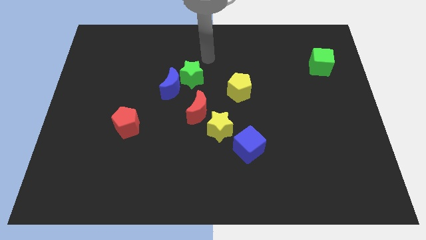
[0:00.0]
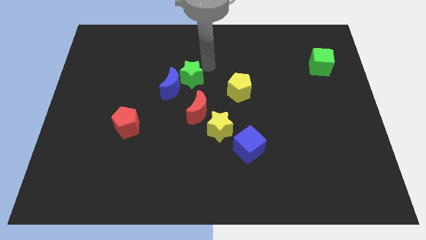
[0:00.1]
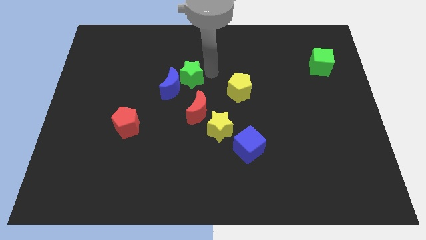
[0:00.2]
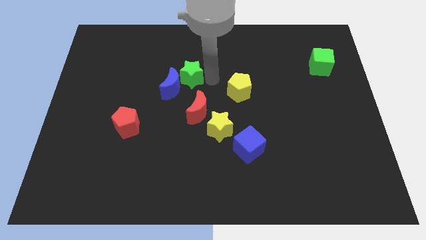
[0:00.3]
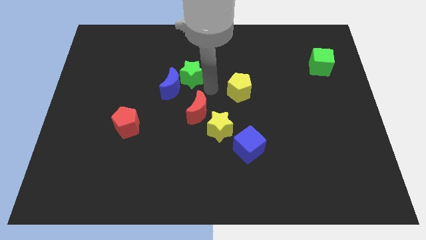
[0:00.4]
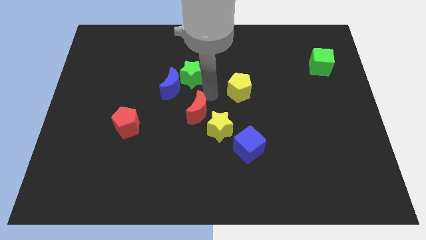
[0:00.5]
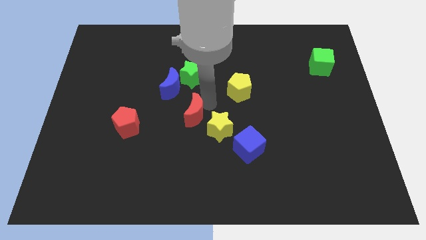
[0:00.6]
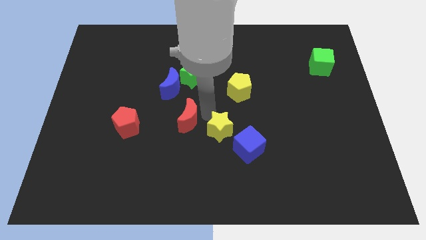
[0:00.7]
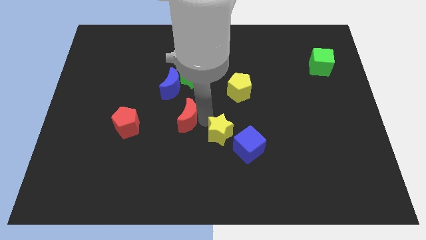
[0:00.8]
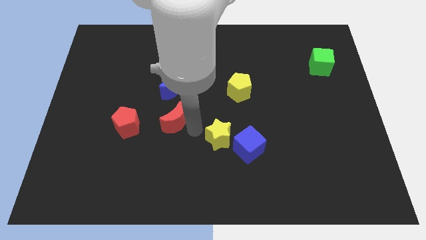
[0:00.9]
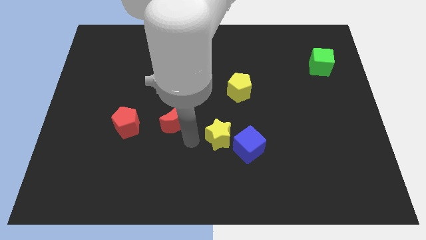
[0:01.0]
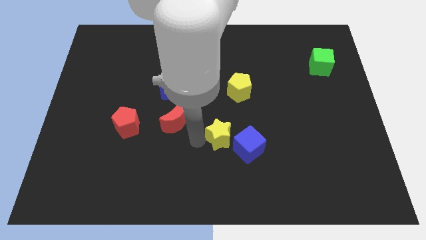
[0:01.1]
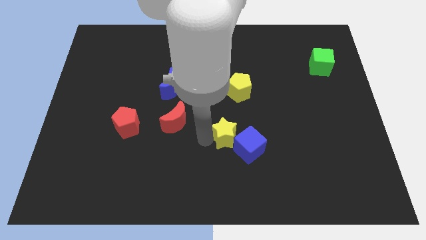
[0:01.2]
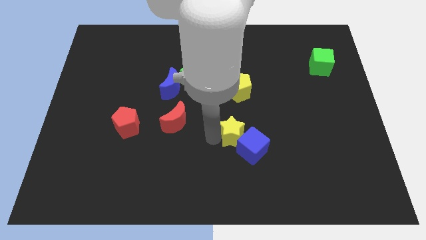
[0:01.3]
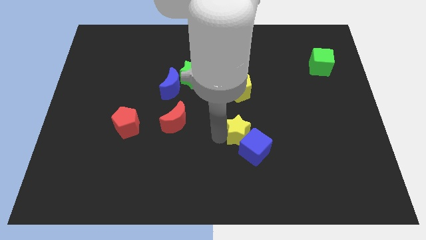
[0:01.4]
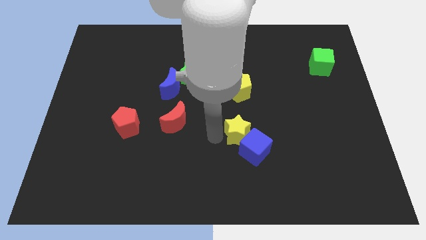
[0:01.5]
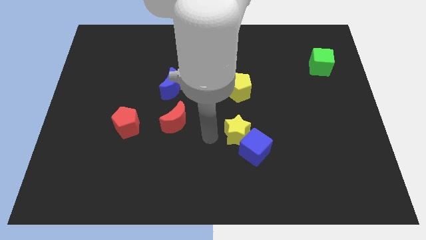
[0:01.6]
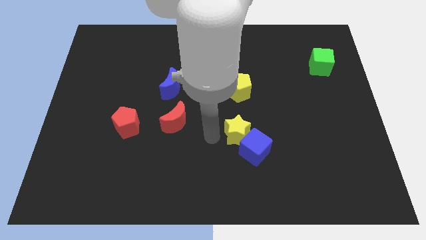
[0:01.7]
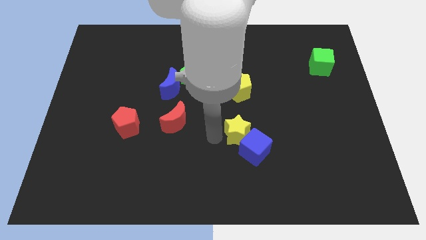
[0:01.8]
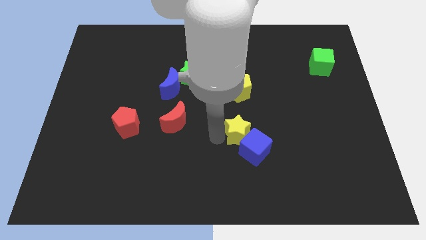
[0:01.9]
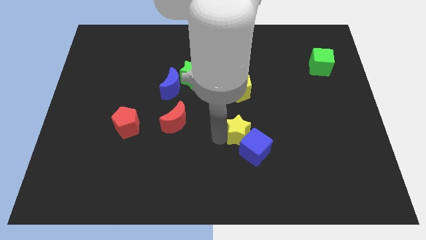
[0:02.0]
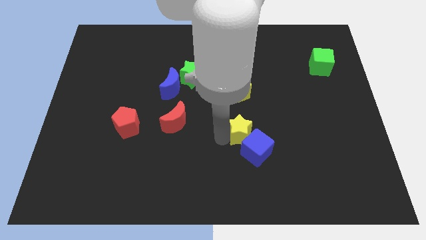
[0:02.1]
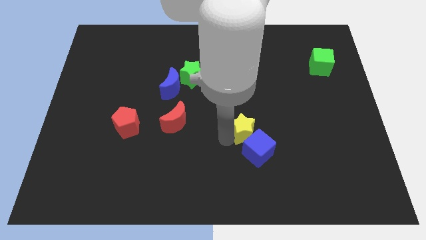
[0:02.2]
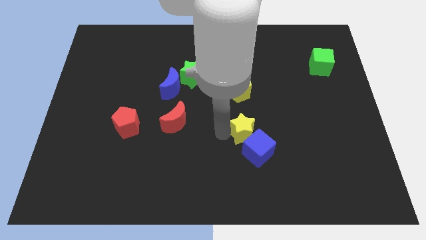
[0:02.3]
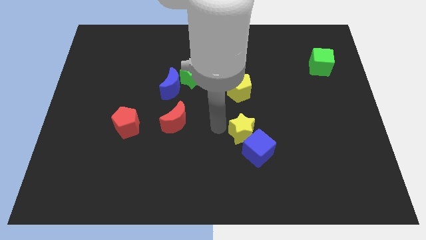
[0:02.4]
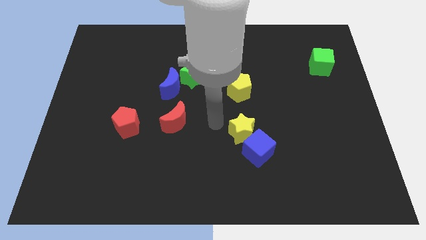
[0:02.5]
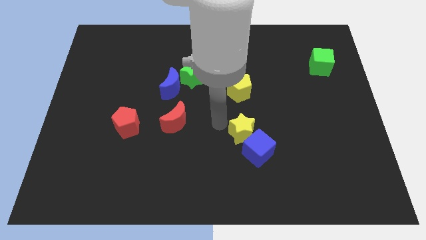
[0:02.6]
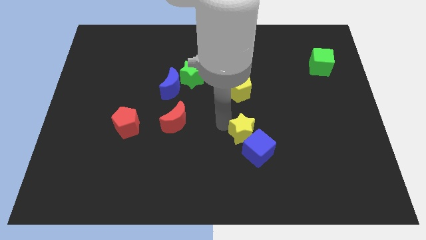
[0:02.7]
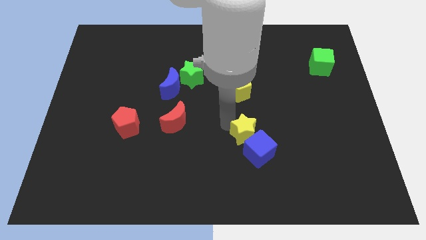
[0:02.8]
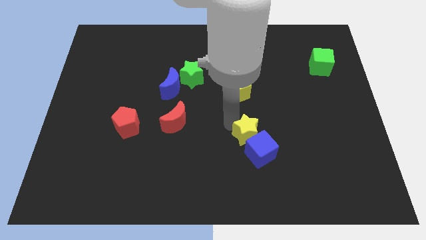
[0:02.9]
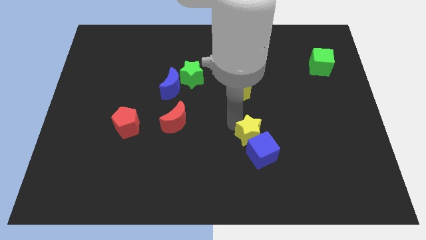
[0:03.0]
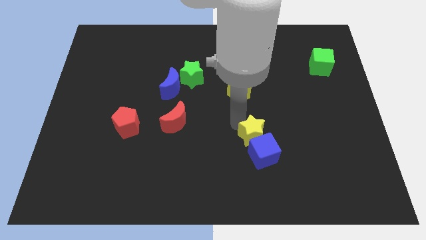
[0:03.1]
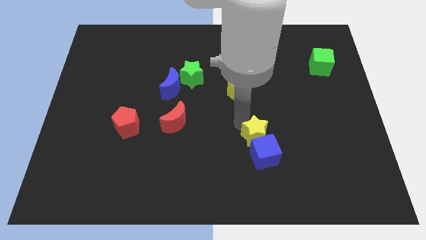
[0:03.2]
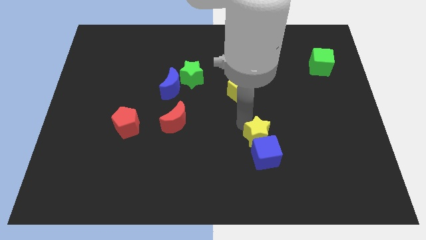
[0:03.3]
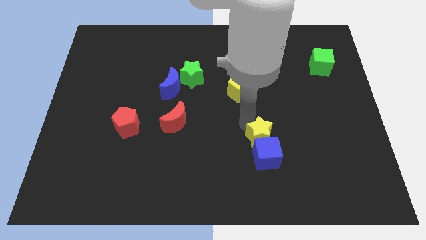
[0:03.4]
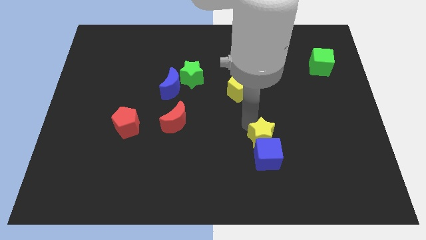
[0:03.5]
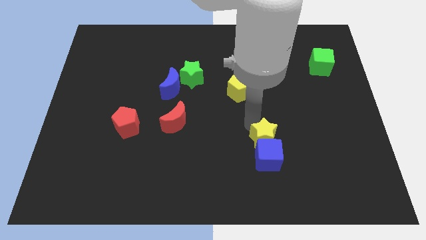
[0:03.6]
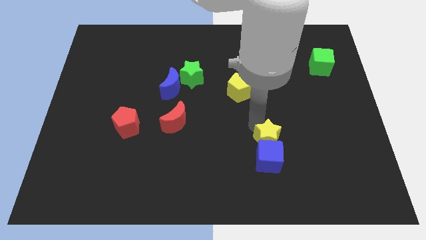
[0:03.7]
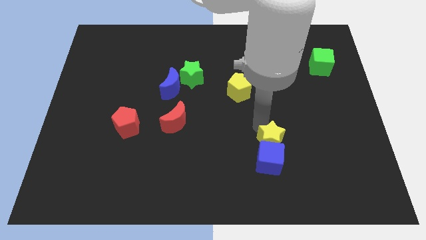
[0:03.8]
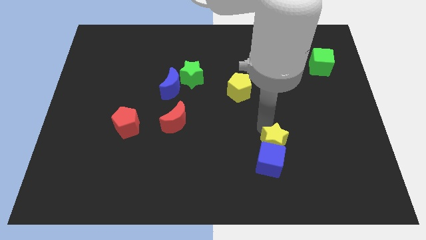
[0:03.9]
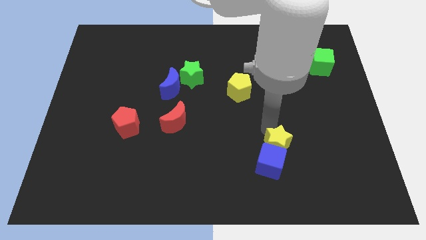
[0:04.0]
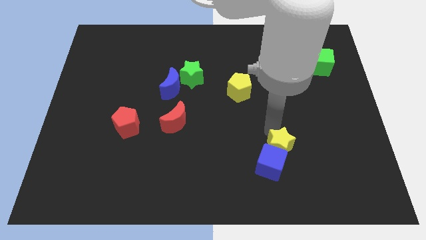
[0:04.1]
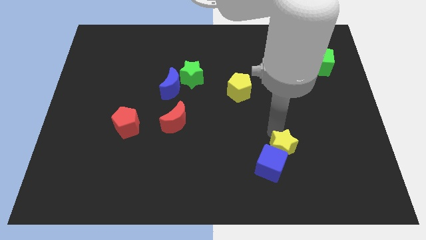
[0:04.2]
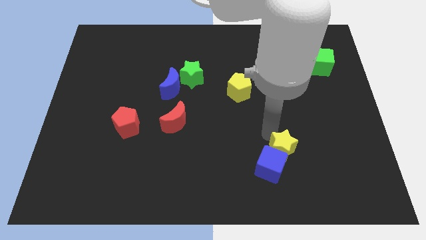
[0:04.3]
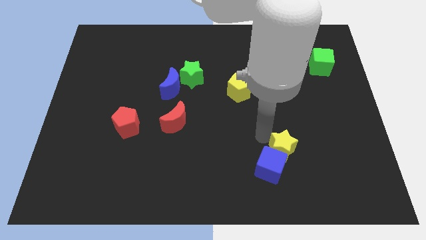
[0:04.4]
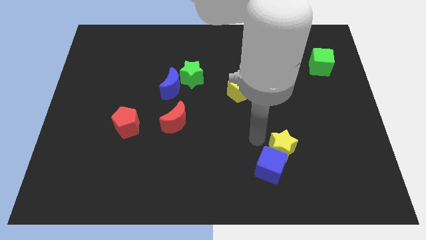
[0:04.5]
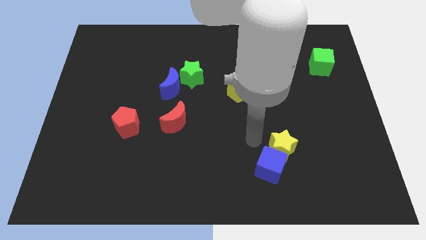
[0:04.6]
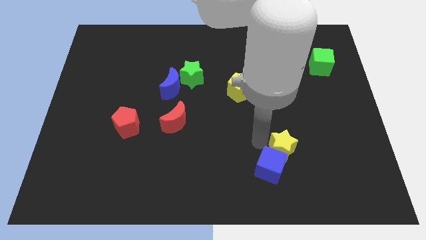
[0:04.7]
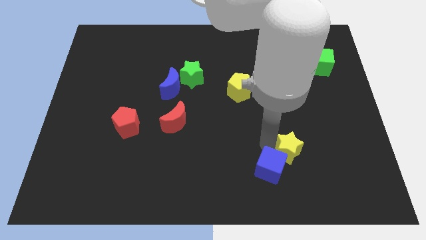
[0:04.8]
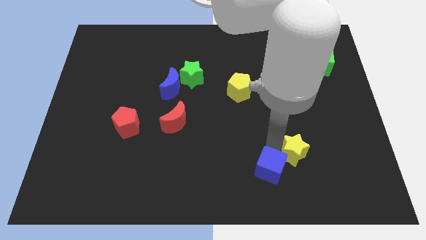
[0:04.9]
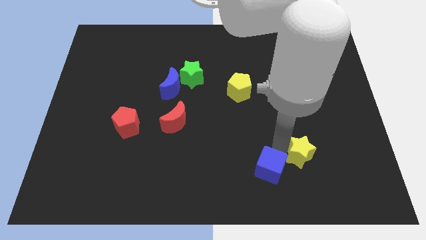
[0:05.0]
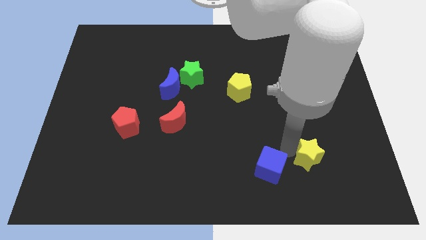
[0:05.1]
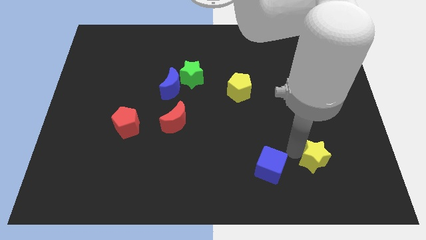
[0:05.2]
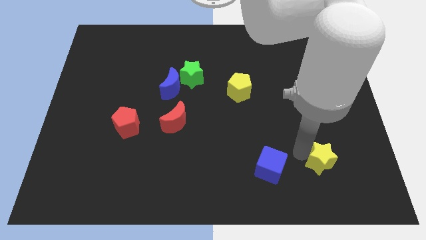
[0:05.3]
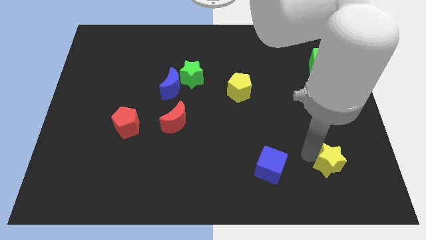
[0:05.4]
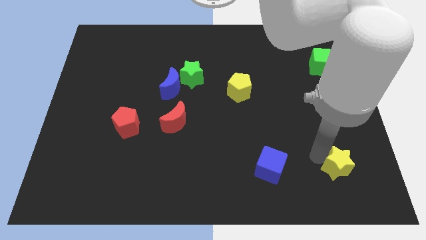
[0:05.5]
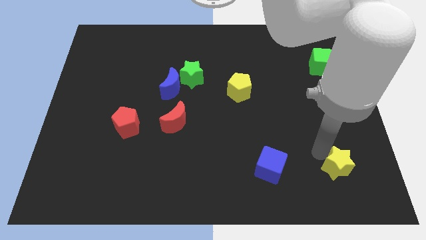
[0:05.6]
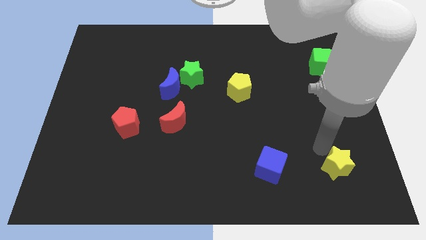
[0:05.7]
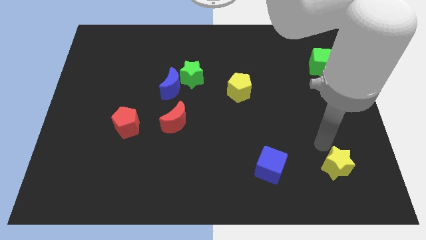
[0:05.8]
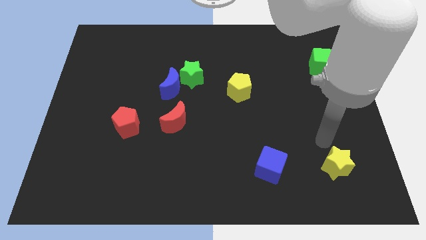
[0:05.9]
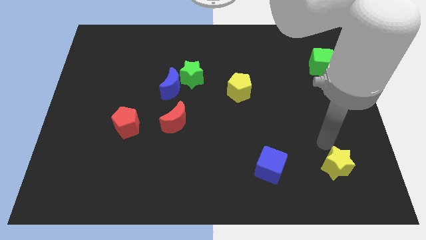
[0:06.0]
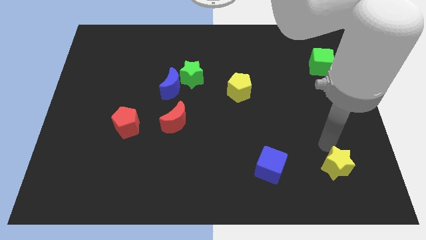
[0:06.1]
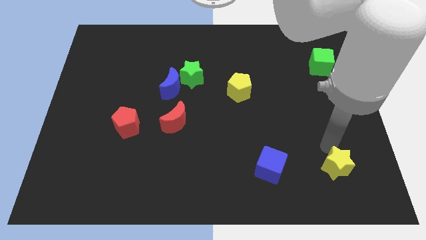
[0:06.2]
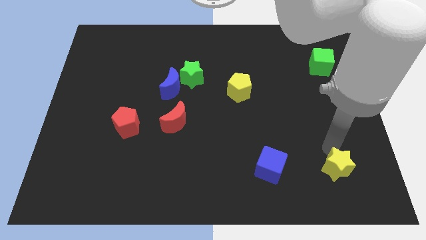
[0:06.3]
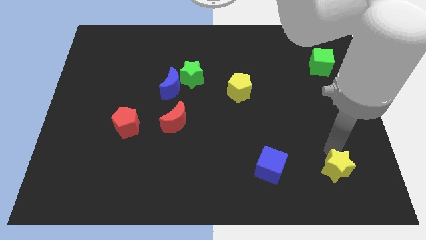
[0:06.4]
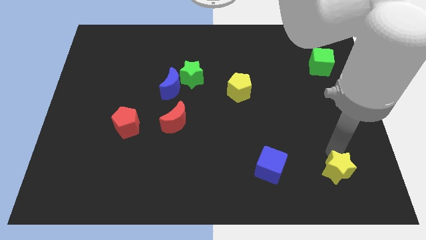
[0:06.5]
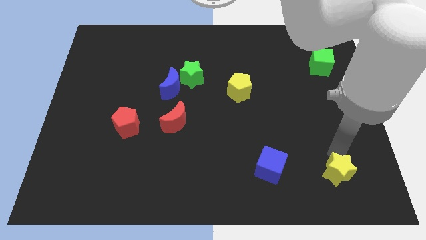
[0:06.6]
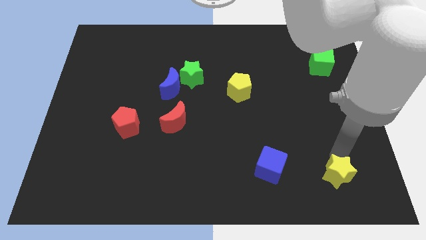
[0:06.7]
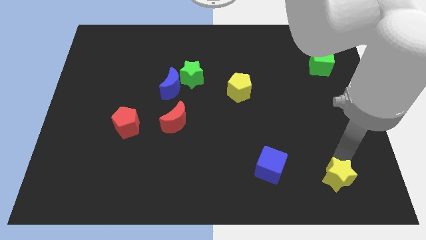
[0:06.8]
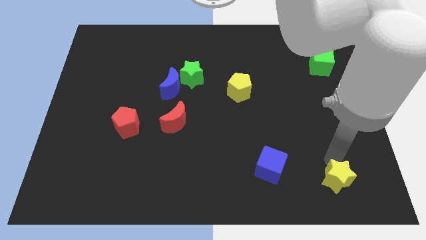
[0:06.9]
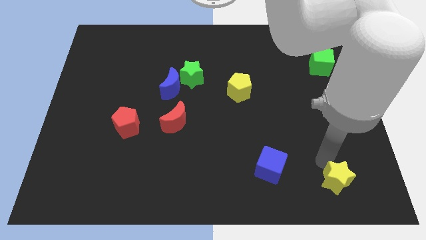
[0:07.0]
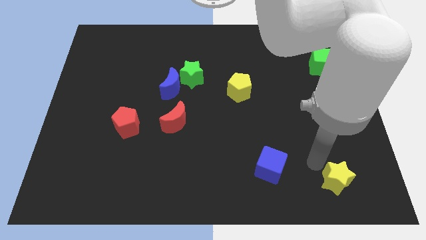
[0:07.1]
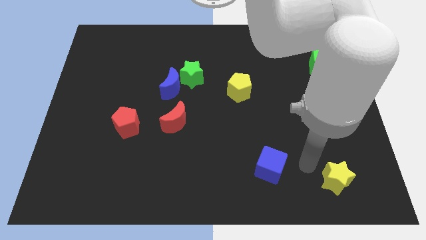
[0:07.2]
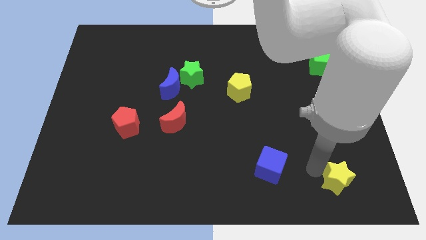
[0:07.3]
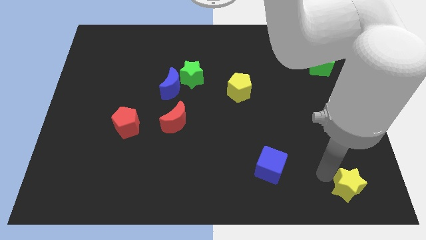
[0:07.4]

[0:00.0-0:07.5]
push the yellow star to the bottom right
